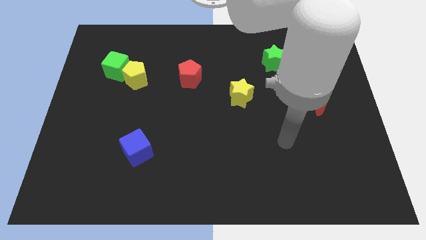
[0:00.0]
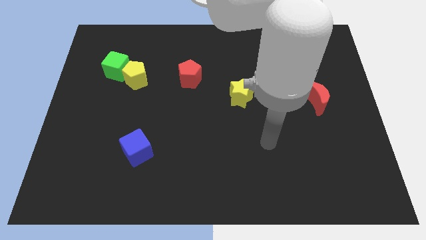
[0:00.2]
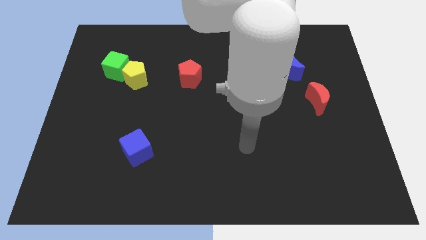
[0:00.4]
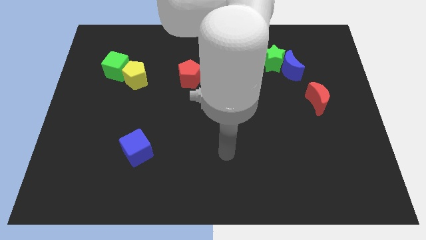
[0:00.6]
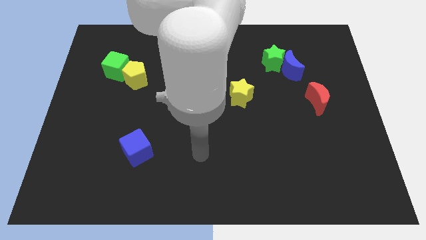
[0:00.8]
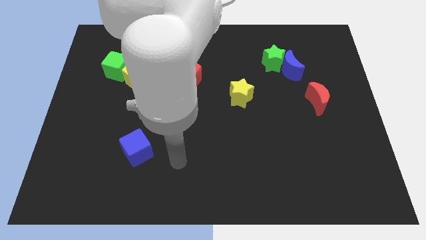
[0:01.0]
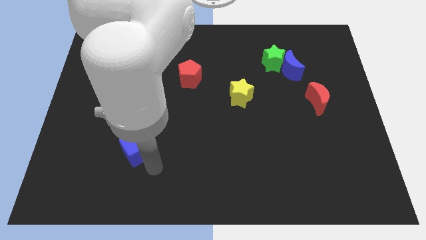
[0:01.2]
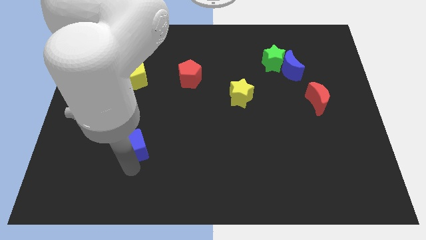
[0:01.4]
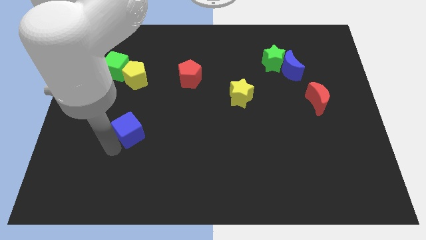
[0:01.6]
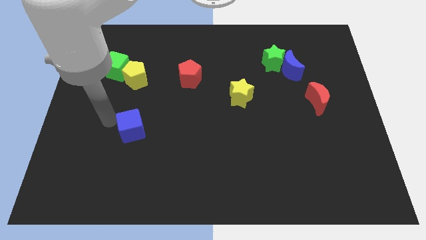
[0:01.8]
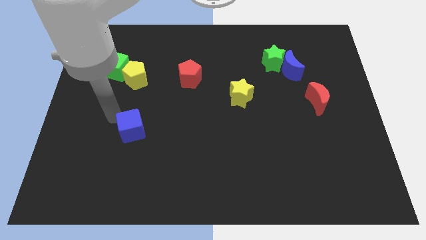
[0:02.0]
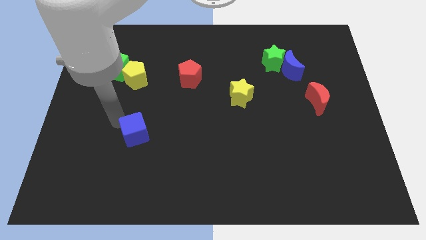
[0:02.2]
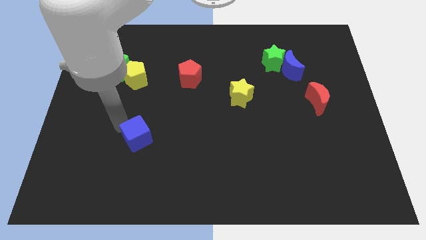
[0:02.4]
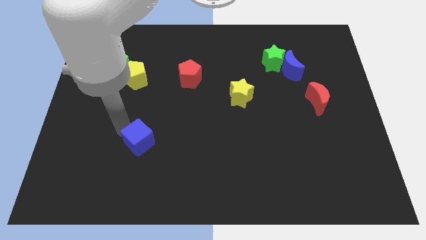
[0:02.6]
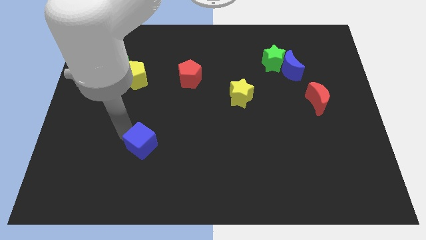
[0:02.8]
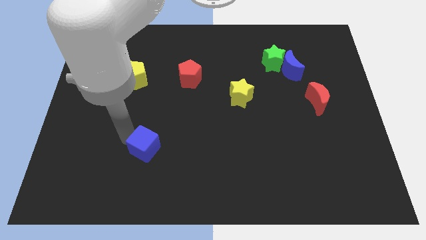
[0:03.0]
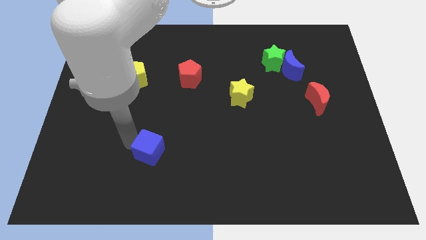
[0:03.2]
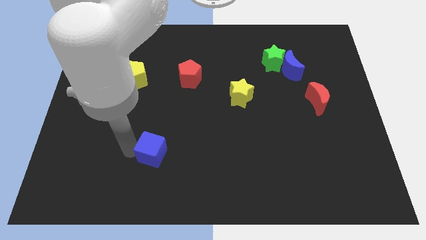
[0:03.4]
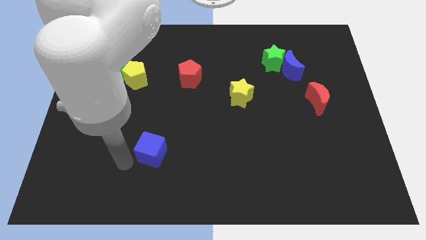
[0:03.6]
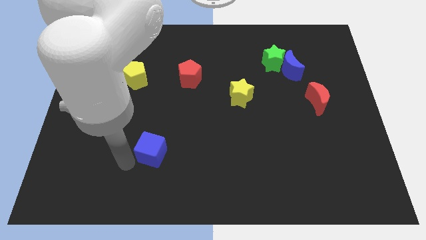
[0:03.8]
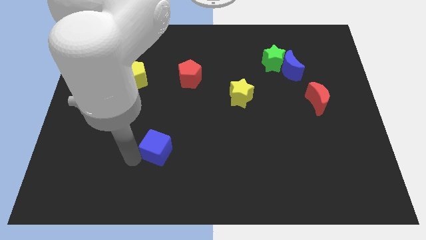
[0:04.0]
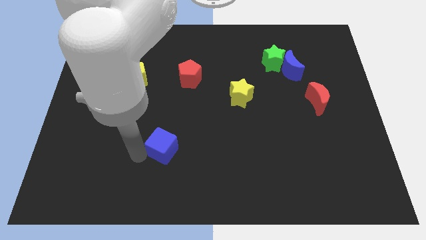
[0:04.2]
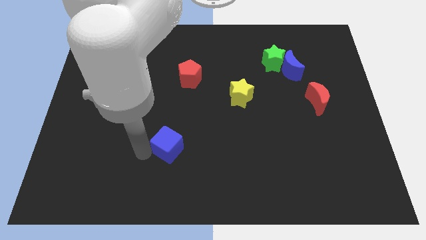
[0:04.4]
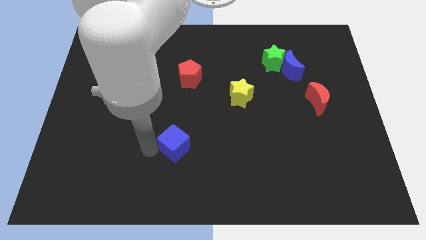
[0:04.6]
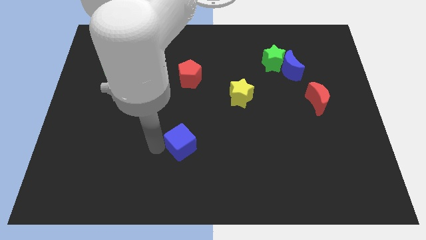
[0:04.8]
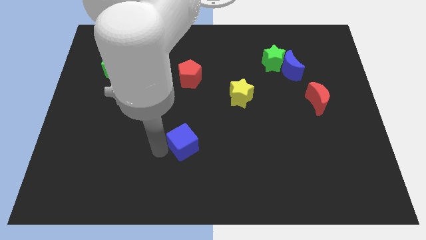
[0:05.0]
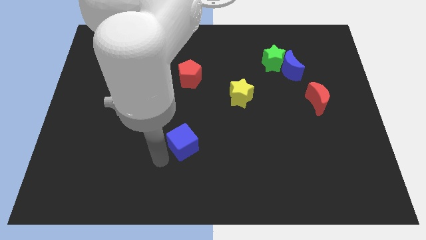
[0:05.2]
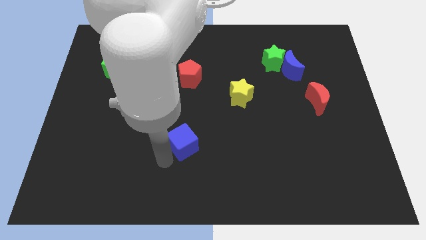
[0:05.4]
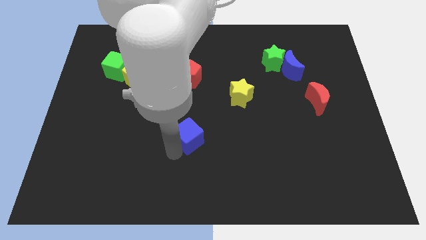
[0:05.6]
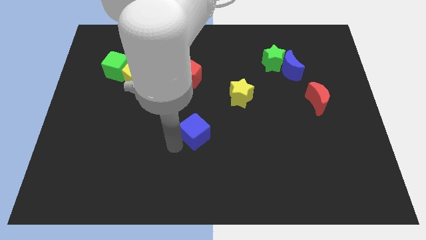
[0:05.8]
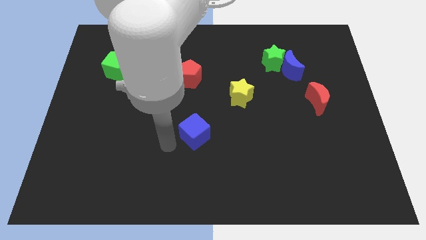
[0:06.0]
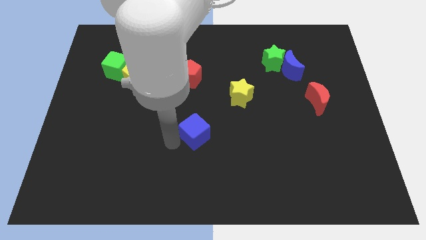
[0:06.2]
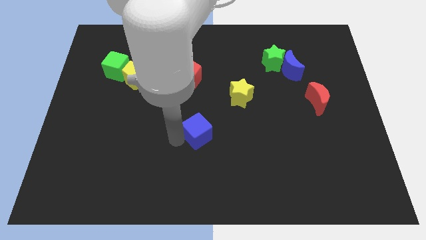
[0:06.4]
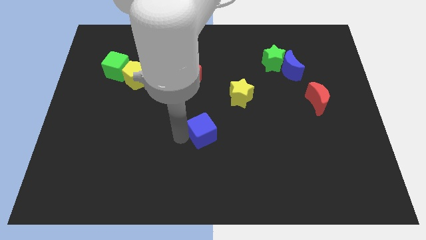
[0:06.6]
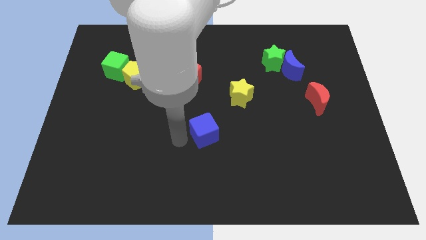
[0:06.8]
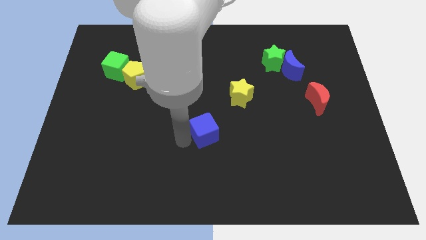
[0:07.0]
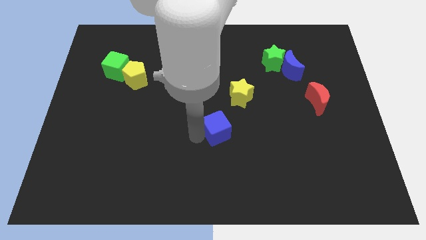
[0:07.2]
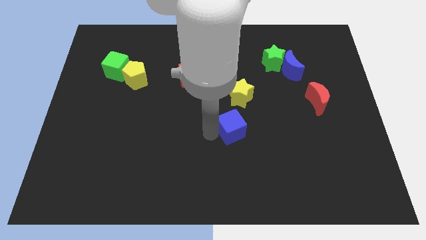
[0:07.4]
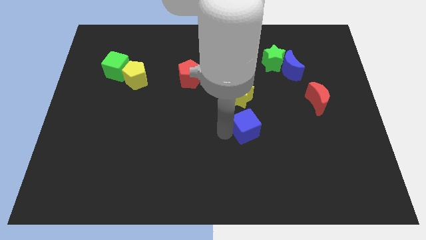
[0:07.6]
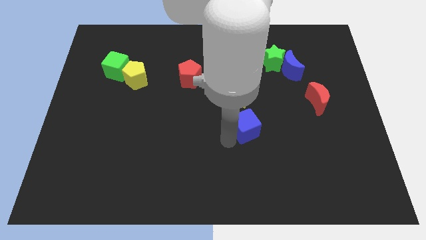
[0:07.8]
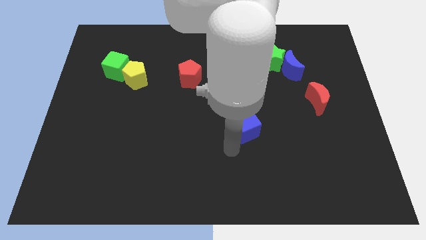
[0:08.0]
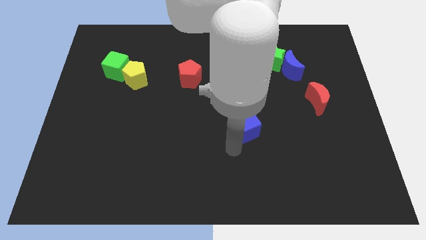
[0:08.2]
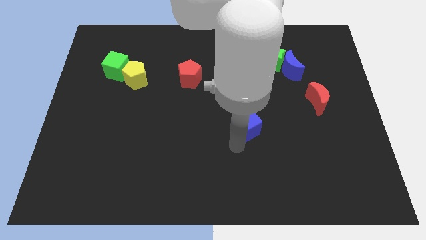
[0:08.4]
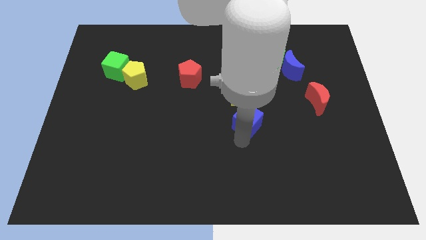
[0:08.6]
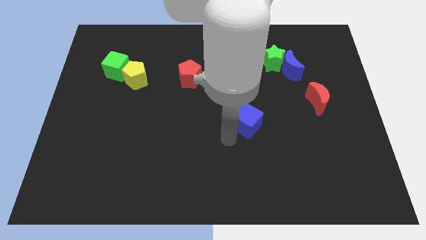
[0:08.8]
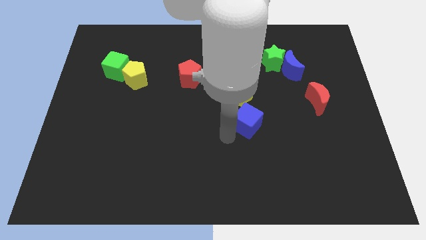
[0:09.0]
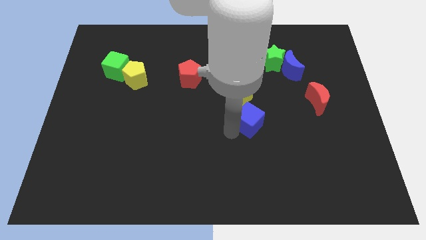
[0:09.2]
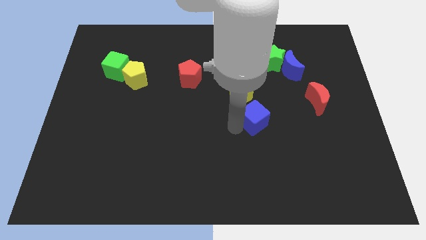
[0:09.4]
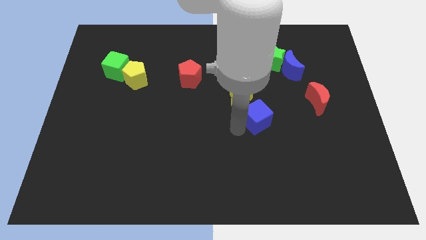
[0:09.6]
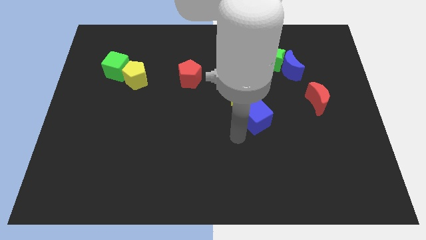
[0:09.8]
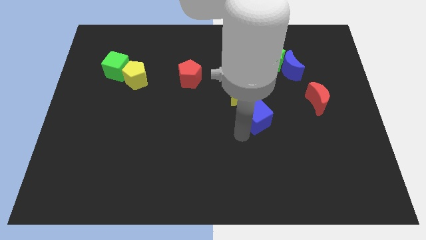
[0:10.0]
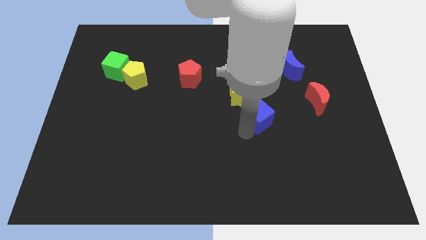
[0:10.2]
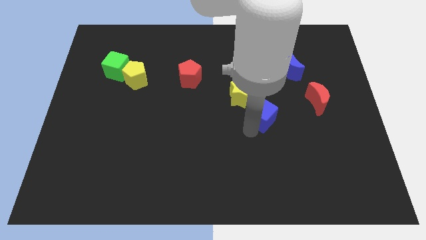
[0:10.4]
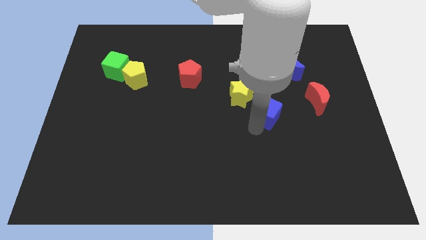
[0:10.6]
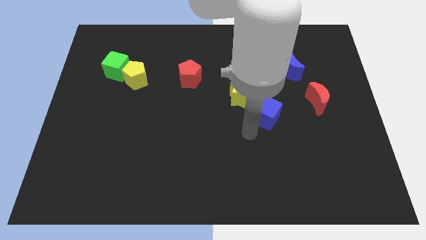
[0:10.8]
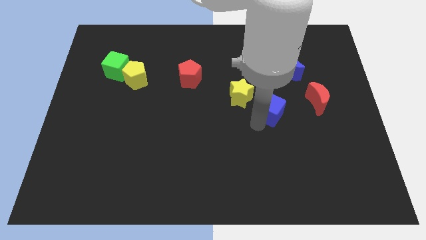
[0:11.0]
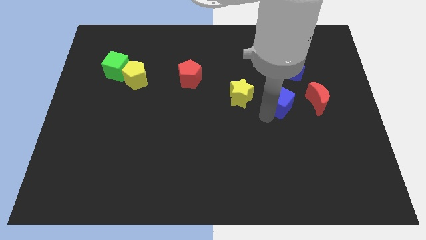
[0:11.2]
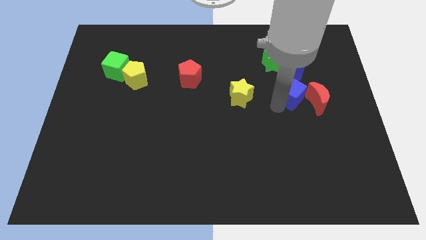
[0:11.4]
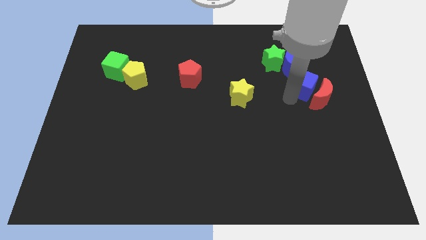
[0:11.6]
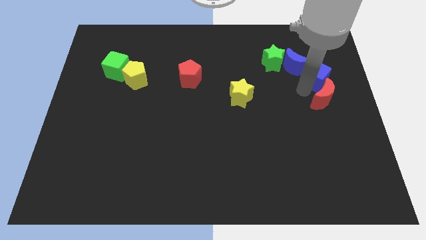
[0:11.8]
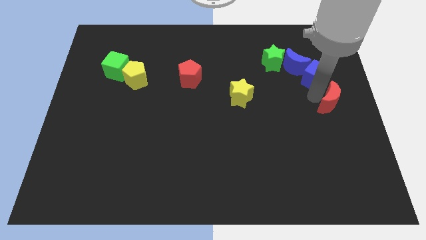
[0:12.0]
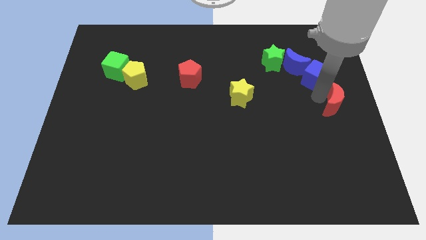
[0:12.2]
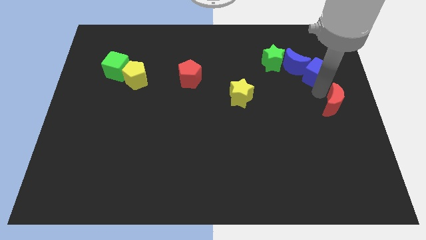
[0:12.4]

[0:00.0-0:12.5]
move the blue cube just right of the green star

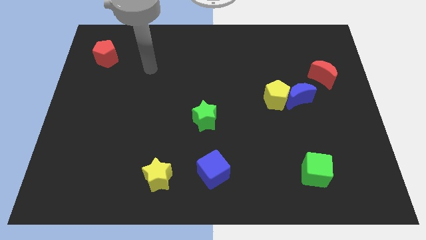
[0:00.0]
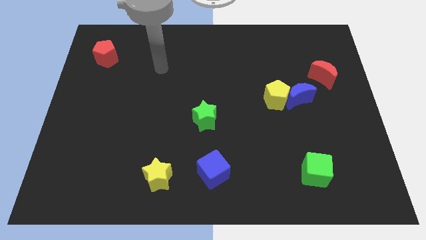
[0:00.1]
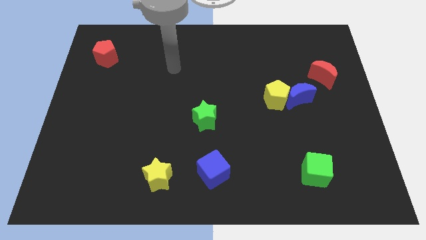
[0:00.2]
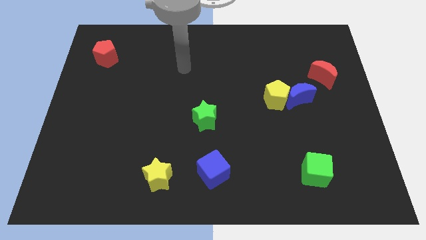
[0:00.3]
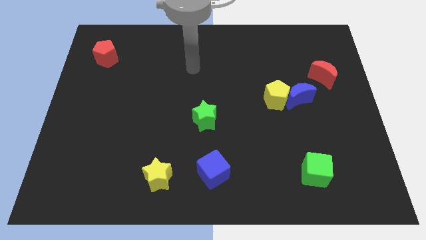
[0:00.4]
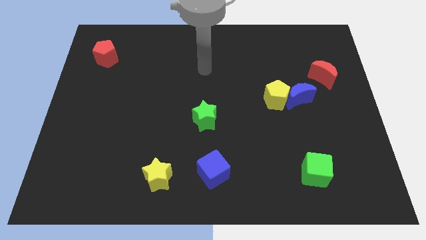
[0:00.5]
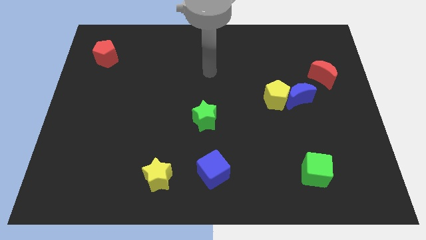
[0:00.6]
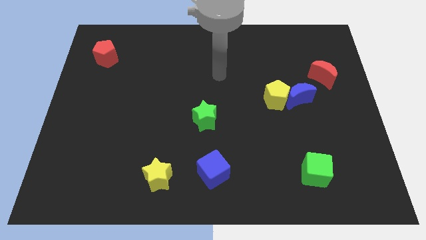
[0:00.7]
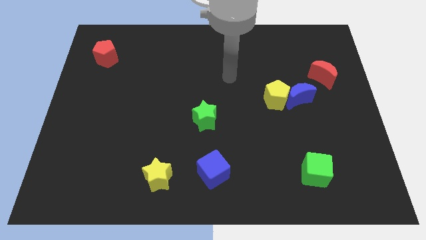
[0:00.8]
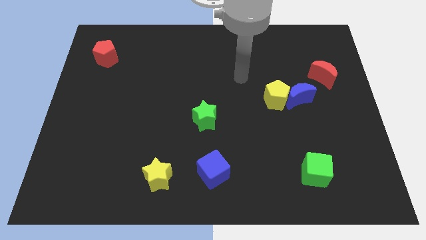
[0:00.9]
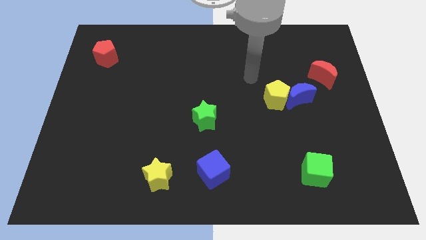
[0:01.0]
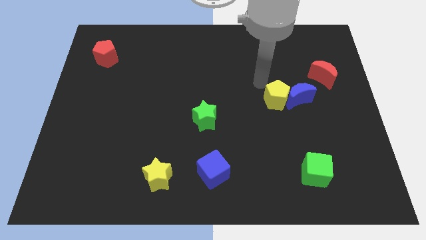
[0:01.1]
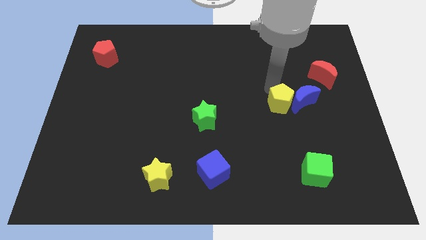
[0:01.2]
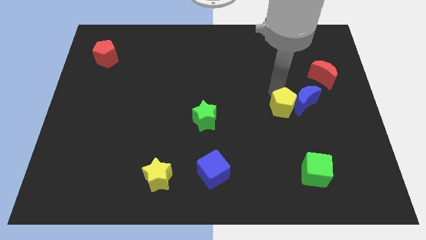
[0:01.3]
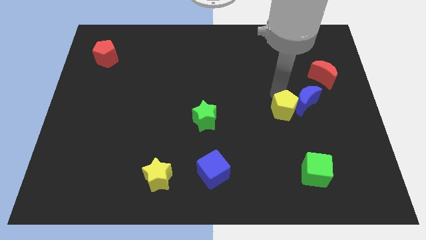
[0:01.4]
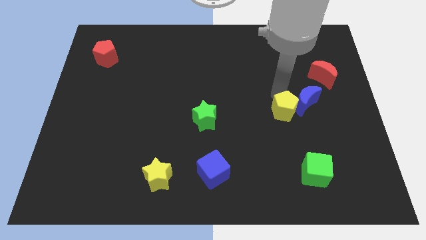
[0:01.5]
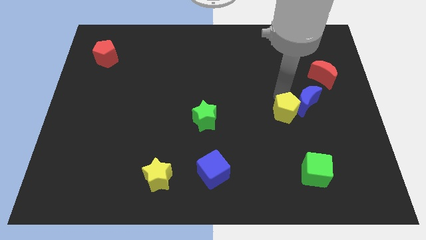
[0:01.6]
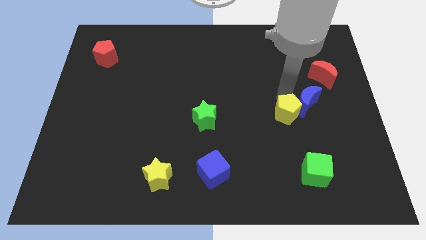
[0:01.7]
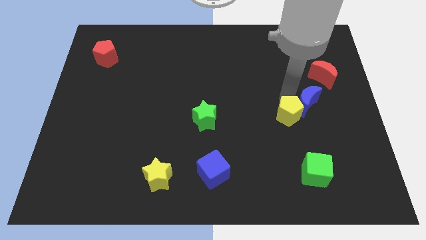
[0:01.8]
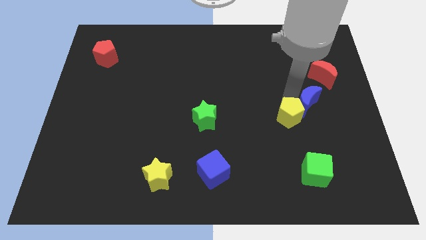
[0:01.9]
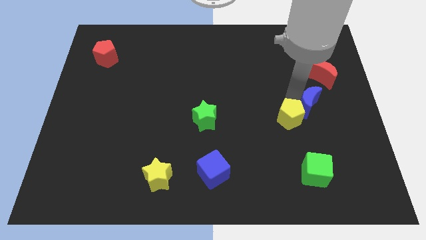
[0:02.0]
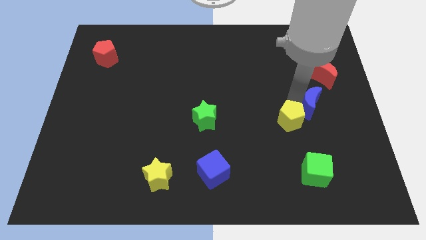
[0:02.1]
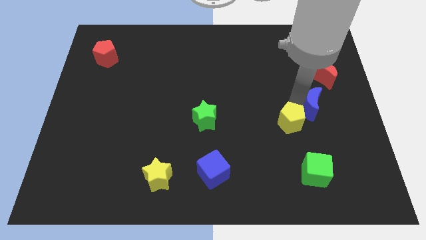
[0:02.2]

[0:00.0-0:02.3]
move the blue moon to the bottom of the red moon
